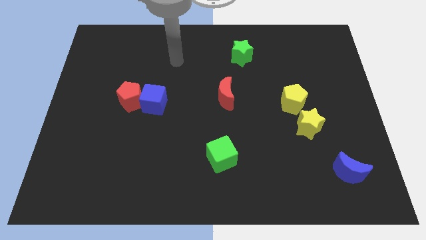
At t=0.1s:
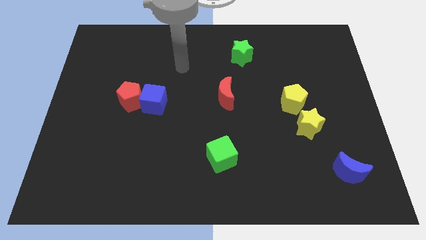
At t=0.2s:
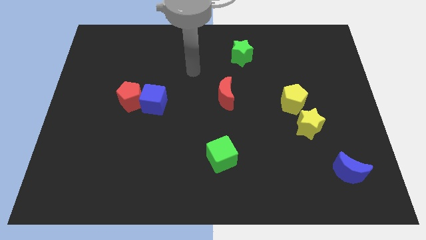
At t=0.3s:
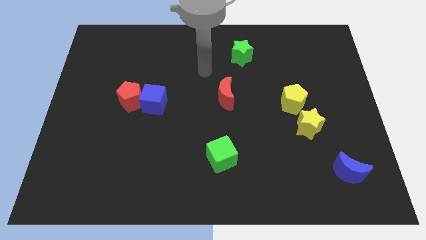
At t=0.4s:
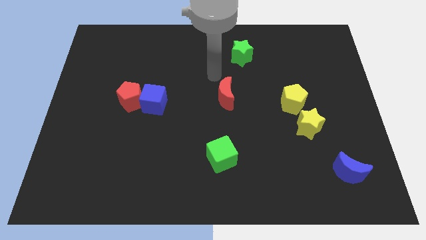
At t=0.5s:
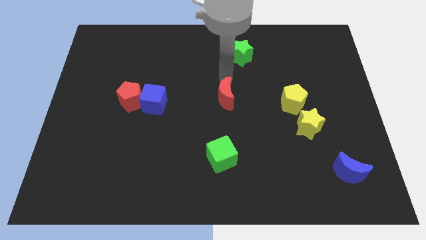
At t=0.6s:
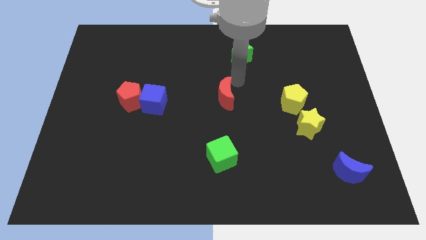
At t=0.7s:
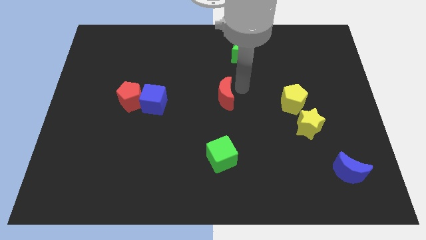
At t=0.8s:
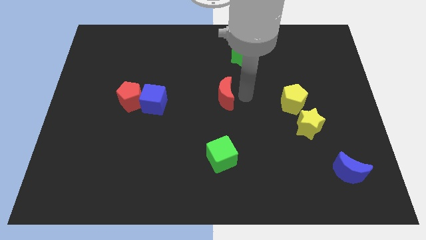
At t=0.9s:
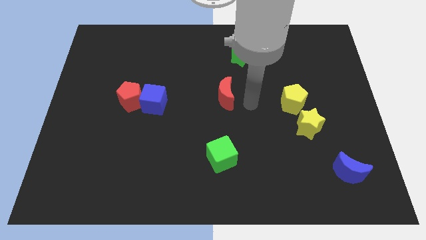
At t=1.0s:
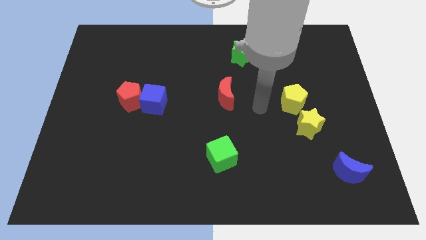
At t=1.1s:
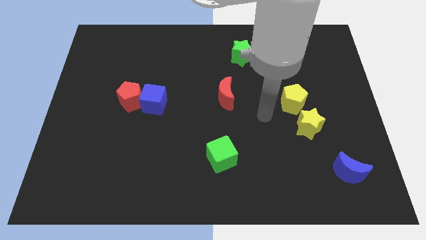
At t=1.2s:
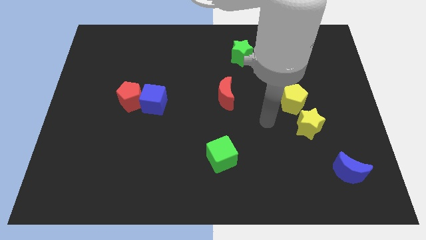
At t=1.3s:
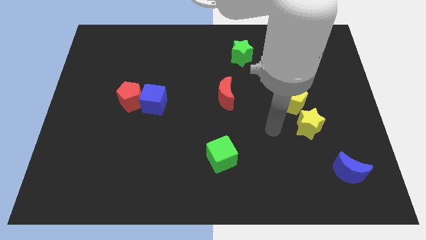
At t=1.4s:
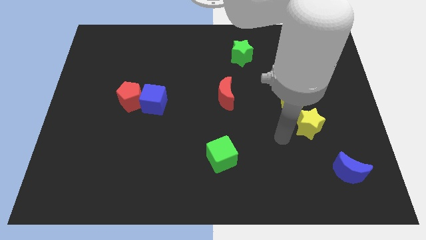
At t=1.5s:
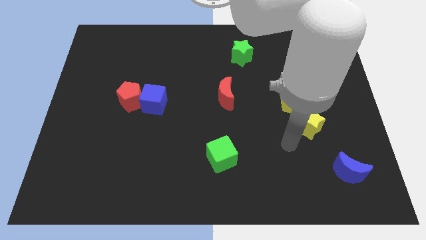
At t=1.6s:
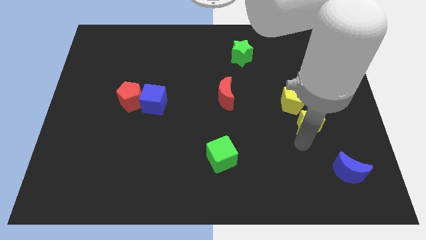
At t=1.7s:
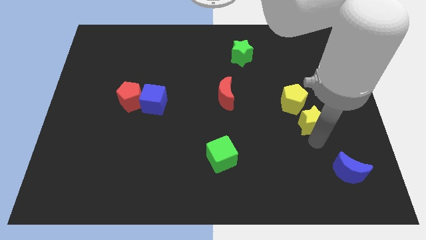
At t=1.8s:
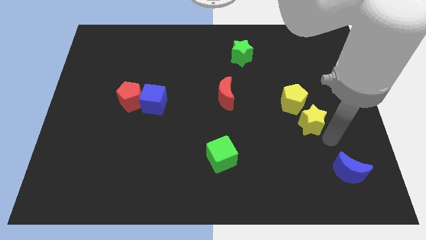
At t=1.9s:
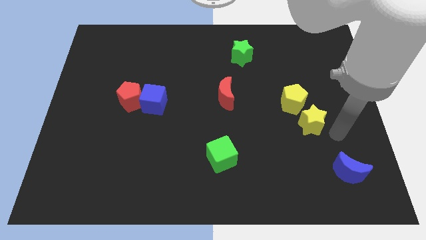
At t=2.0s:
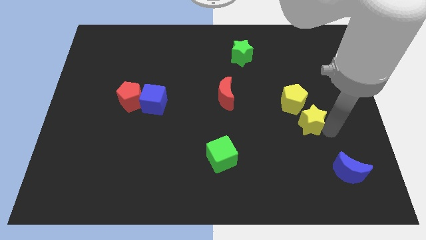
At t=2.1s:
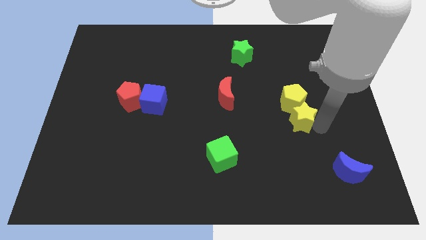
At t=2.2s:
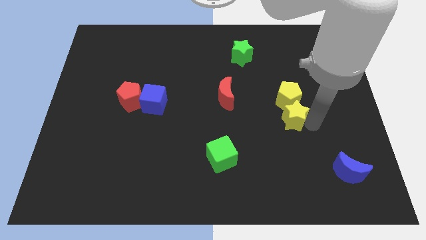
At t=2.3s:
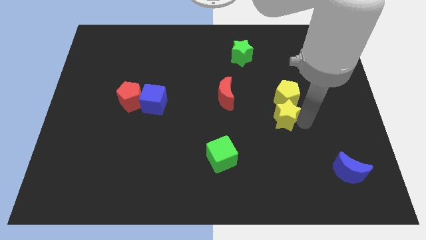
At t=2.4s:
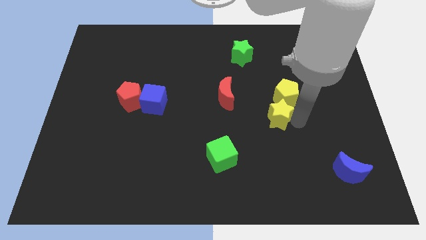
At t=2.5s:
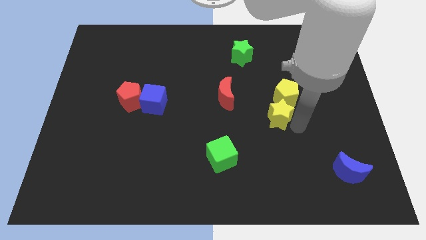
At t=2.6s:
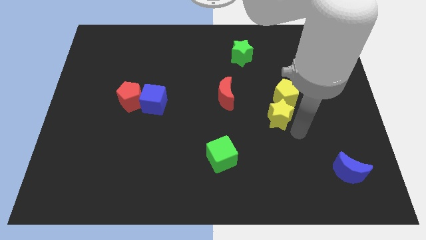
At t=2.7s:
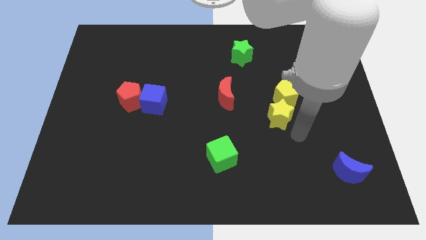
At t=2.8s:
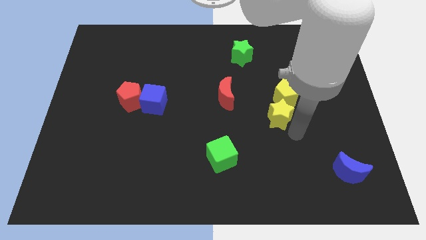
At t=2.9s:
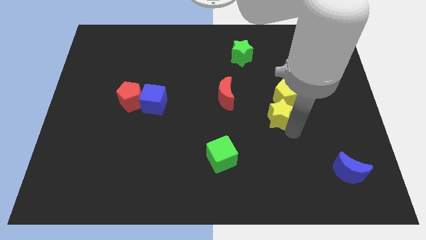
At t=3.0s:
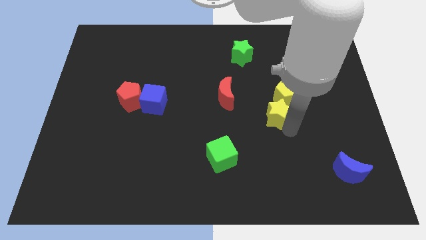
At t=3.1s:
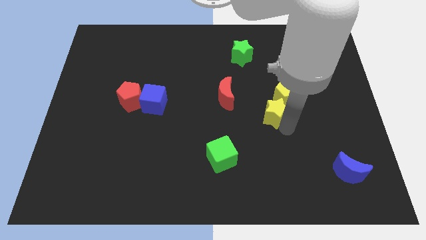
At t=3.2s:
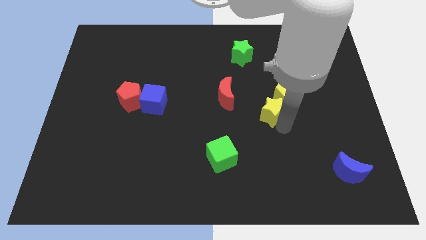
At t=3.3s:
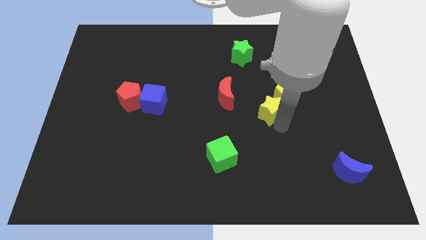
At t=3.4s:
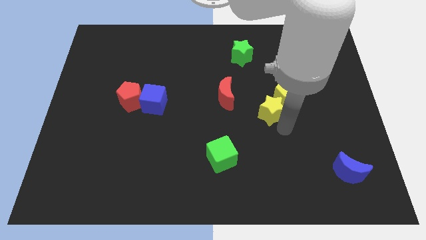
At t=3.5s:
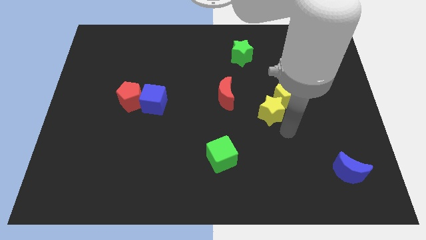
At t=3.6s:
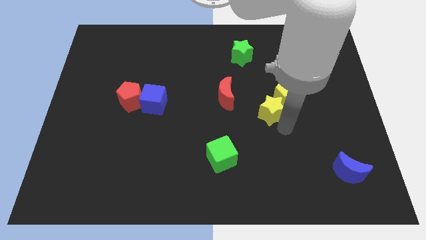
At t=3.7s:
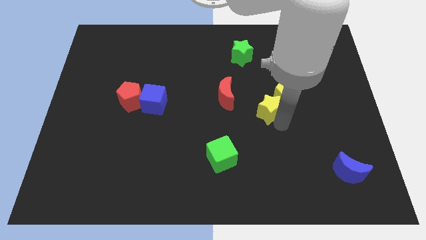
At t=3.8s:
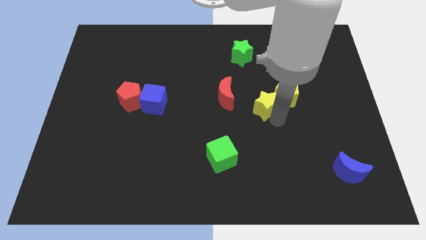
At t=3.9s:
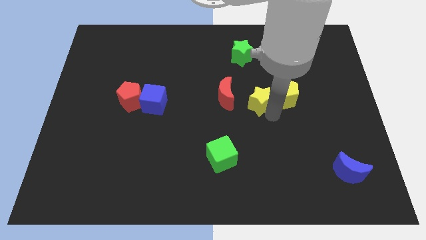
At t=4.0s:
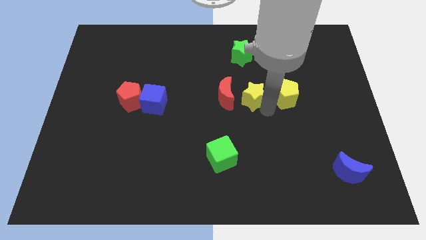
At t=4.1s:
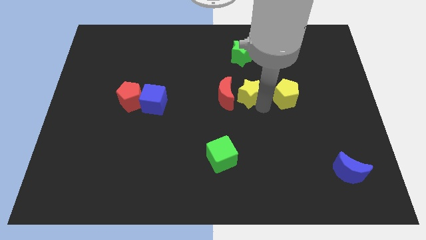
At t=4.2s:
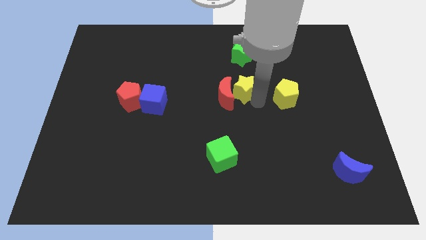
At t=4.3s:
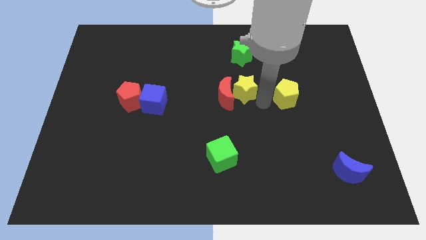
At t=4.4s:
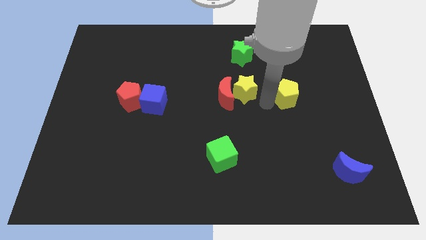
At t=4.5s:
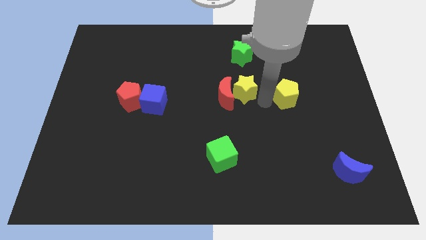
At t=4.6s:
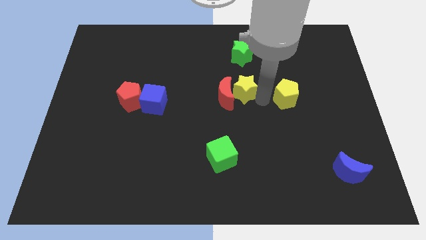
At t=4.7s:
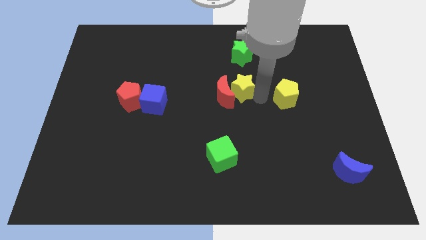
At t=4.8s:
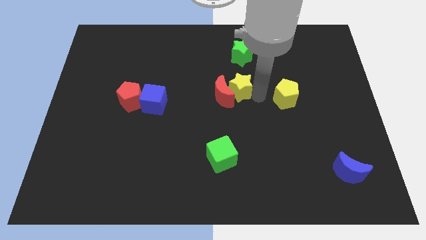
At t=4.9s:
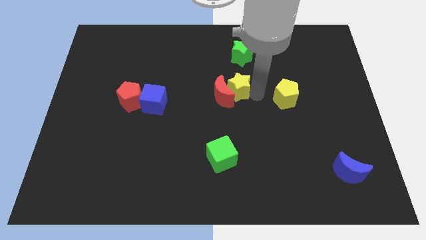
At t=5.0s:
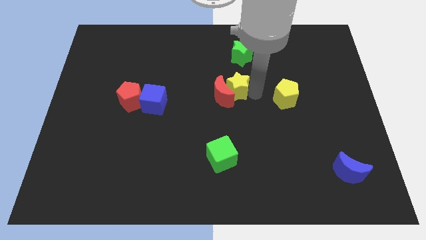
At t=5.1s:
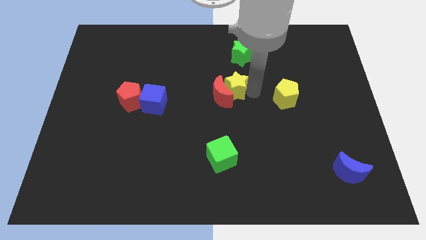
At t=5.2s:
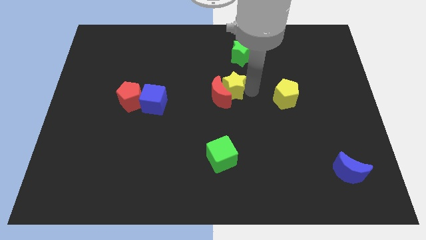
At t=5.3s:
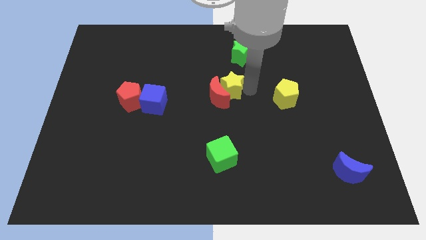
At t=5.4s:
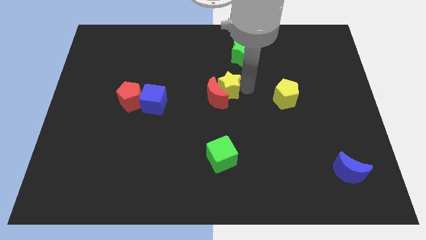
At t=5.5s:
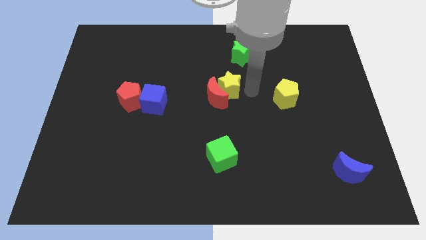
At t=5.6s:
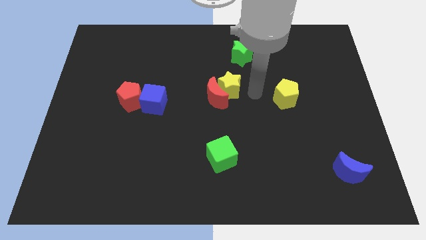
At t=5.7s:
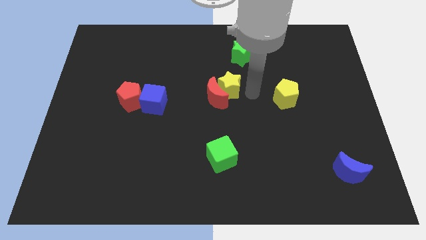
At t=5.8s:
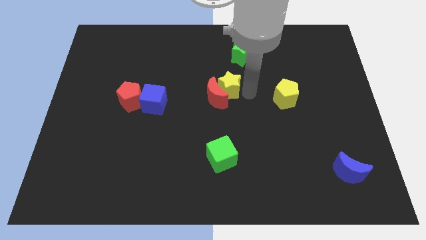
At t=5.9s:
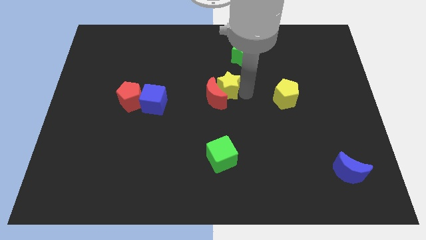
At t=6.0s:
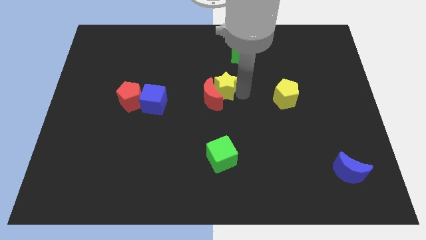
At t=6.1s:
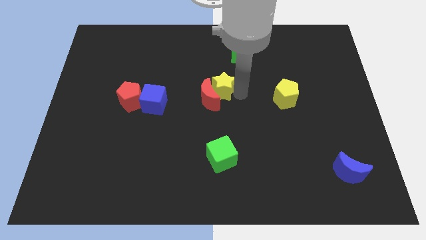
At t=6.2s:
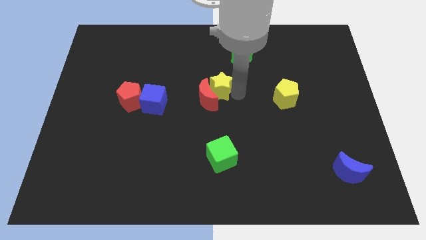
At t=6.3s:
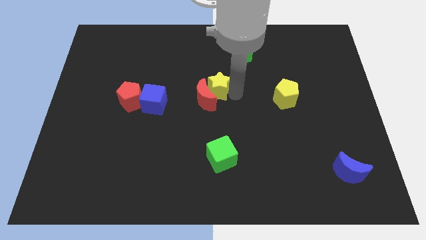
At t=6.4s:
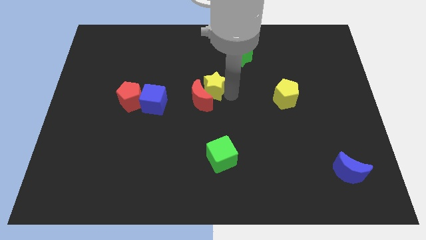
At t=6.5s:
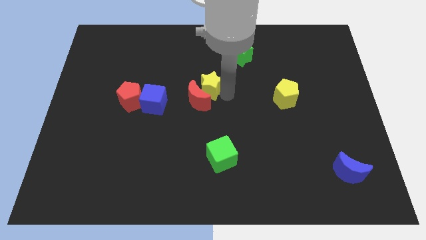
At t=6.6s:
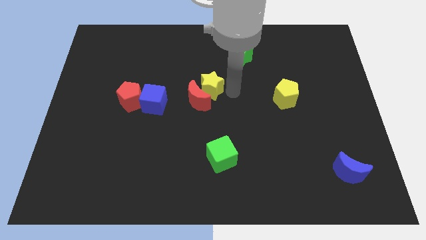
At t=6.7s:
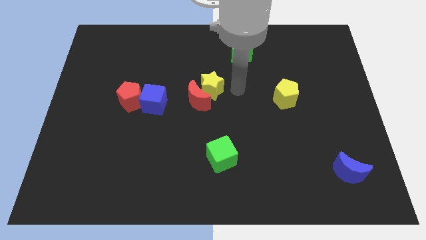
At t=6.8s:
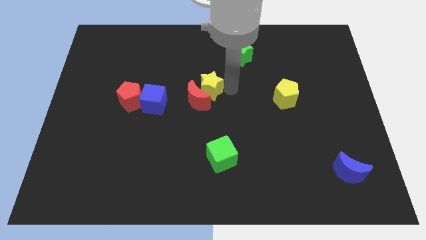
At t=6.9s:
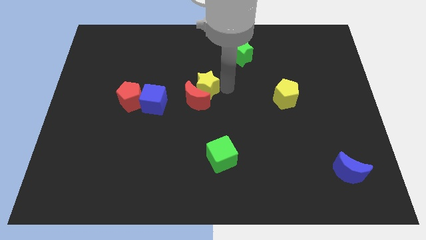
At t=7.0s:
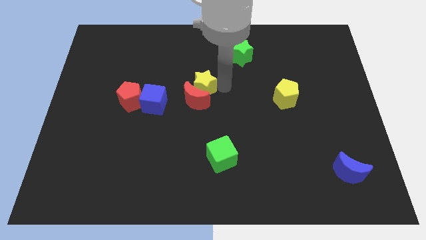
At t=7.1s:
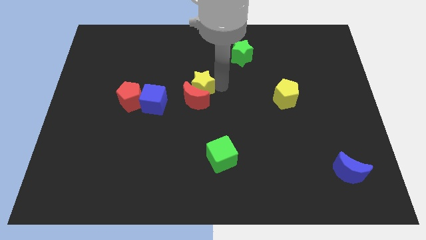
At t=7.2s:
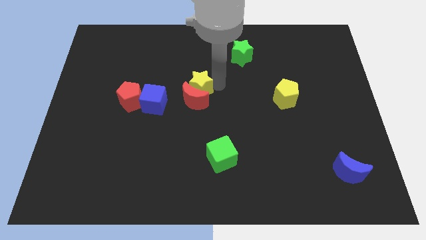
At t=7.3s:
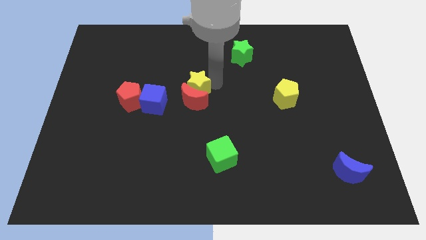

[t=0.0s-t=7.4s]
move the yellow star to the top right of the blue cube

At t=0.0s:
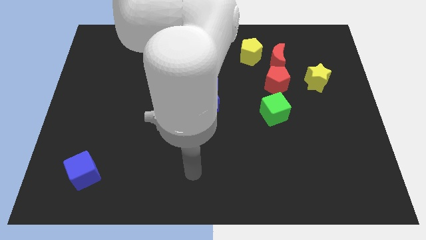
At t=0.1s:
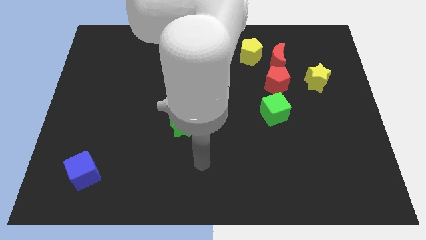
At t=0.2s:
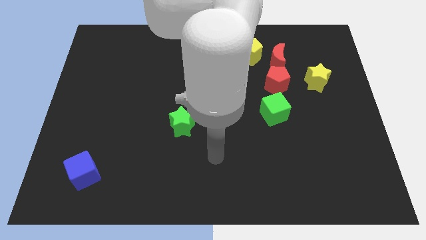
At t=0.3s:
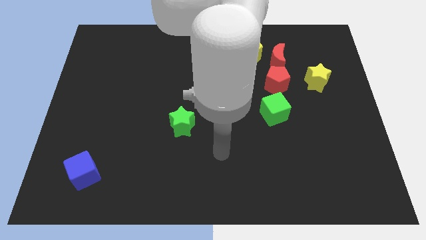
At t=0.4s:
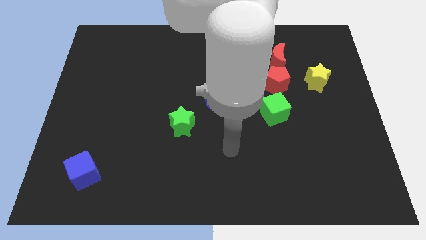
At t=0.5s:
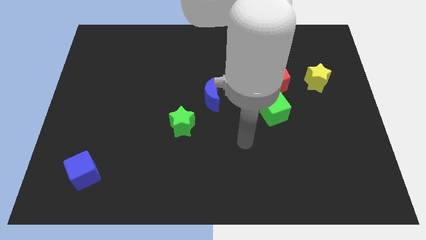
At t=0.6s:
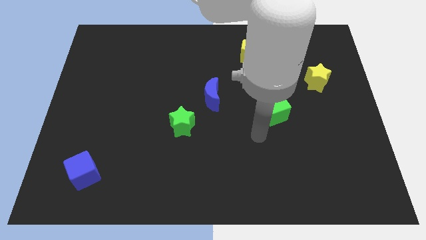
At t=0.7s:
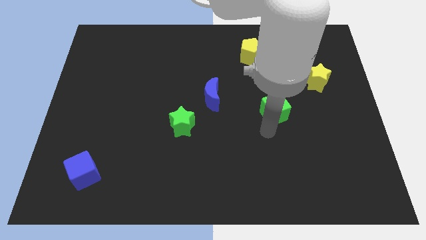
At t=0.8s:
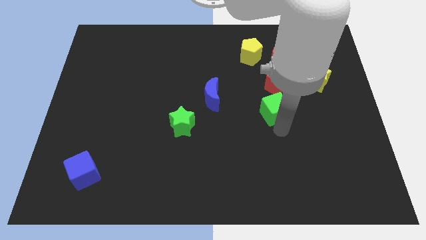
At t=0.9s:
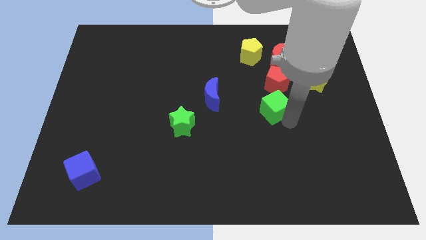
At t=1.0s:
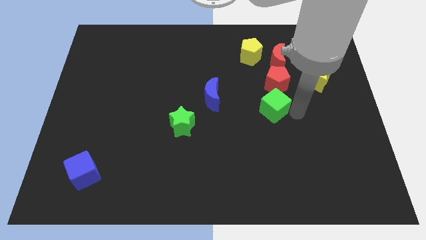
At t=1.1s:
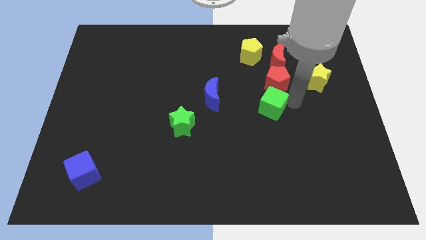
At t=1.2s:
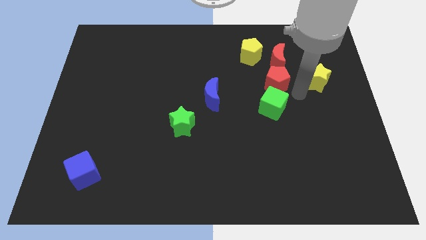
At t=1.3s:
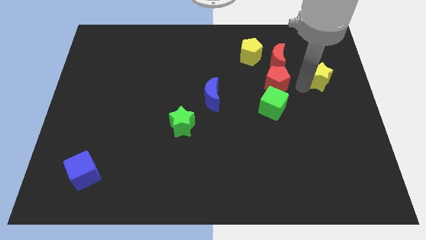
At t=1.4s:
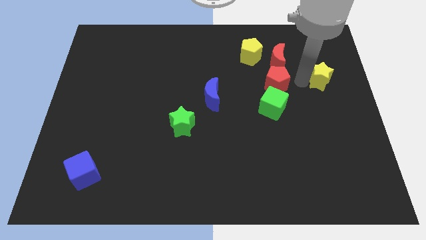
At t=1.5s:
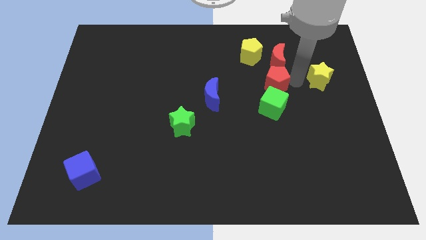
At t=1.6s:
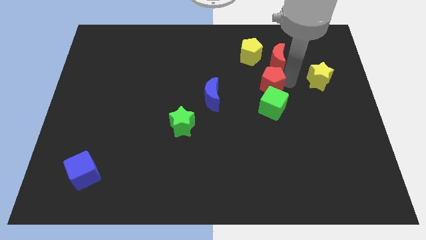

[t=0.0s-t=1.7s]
move the red pentagon to the bottom side of the yellow pentagon
